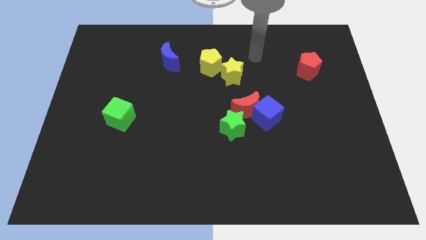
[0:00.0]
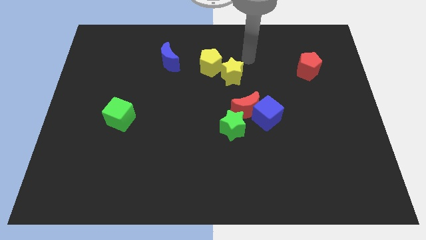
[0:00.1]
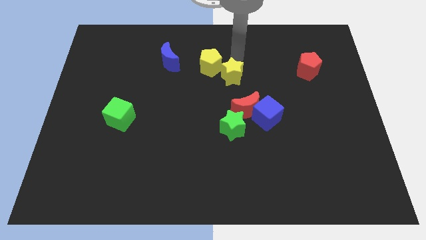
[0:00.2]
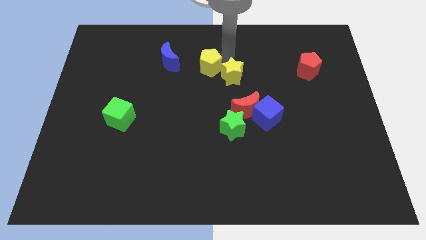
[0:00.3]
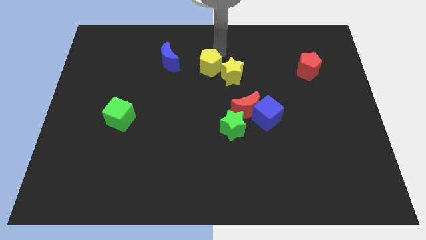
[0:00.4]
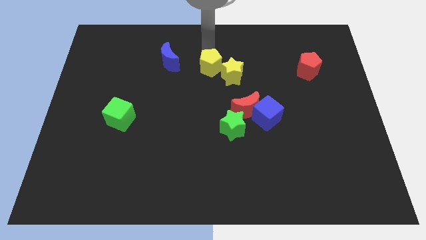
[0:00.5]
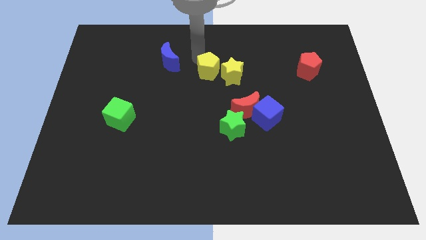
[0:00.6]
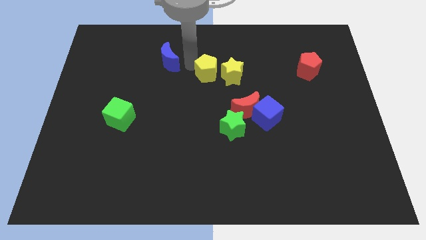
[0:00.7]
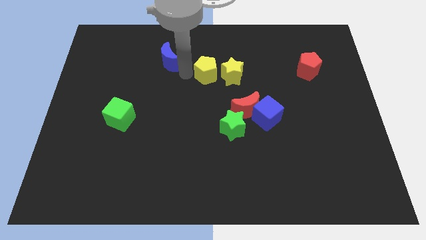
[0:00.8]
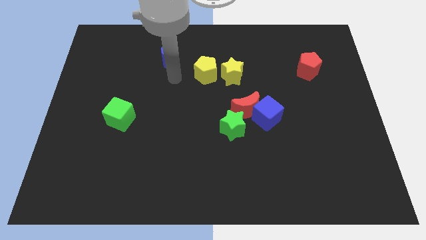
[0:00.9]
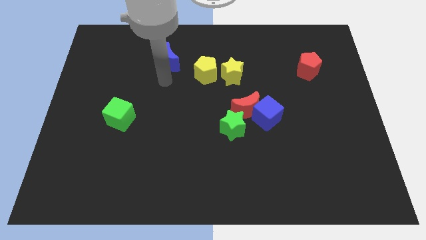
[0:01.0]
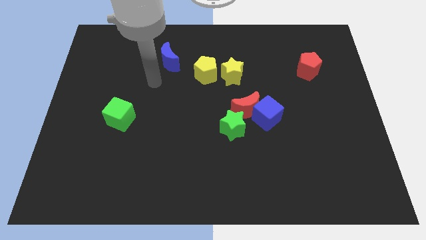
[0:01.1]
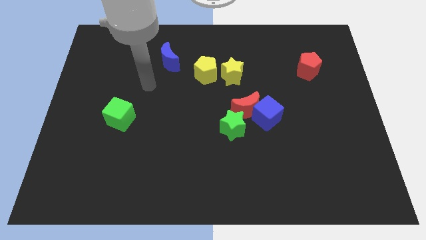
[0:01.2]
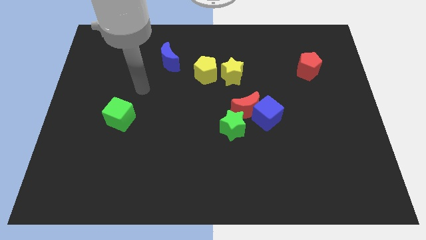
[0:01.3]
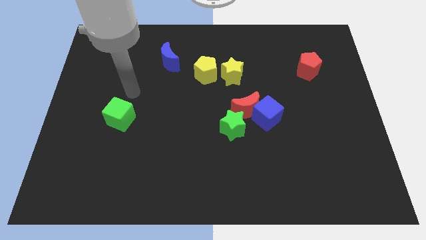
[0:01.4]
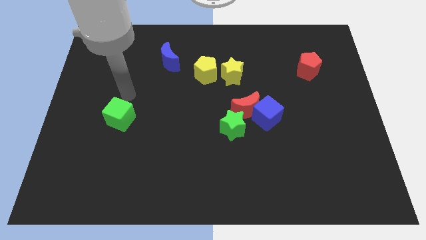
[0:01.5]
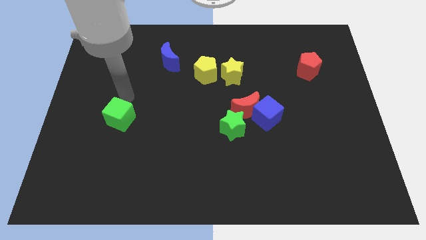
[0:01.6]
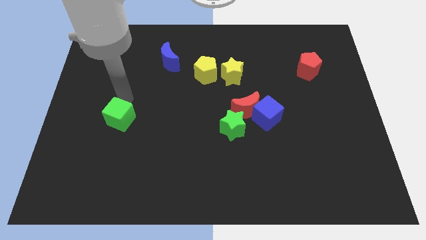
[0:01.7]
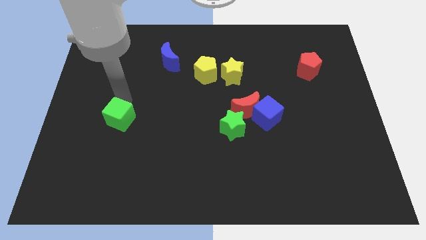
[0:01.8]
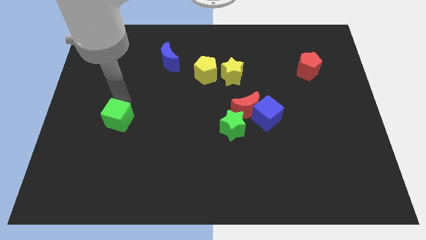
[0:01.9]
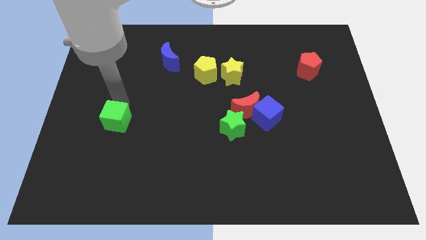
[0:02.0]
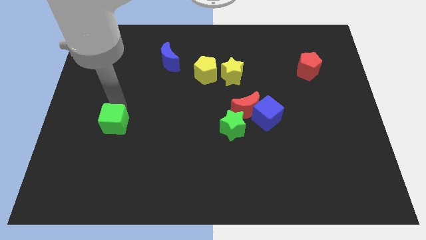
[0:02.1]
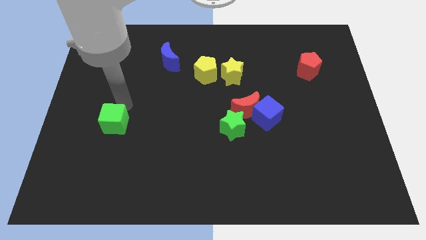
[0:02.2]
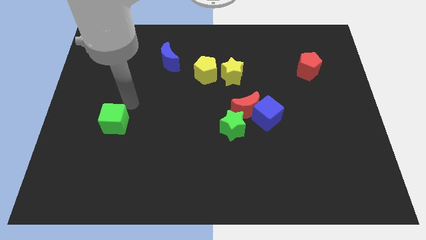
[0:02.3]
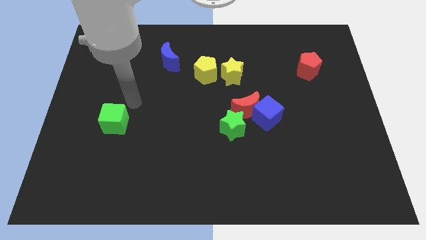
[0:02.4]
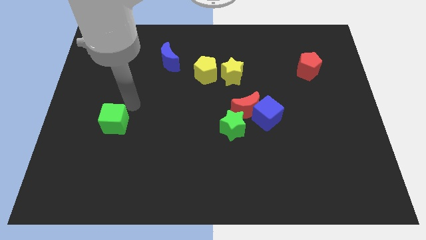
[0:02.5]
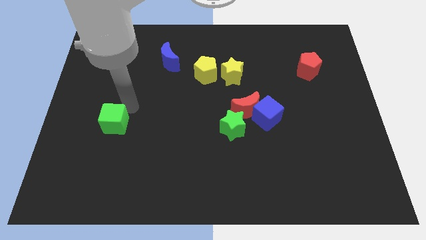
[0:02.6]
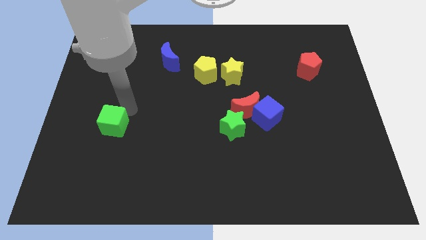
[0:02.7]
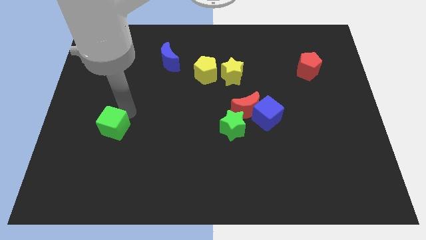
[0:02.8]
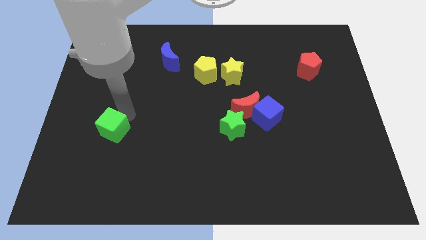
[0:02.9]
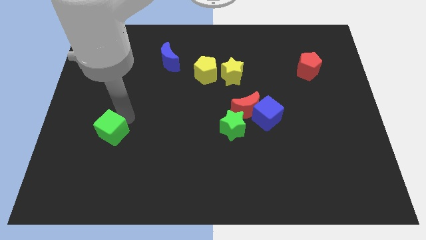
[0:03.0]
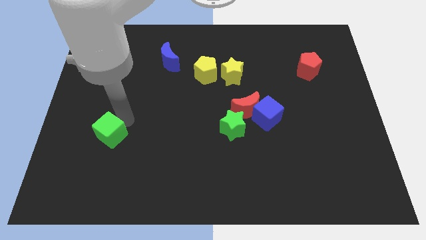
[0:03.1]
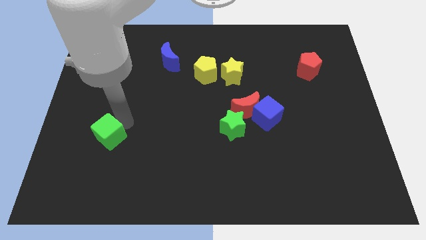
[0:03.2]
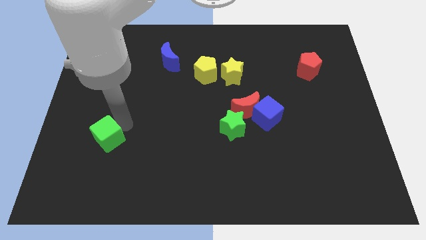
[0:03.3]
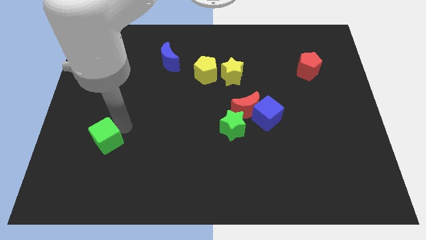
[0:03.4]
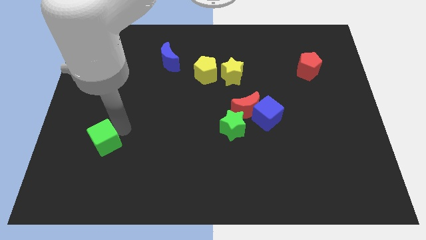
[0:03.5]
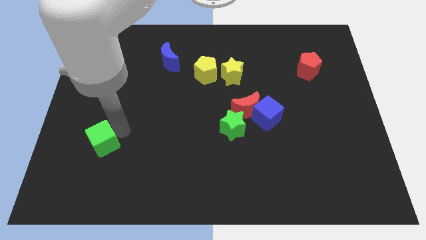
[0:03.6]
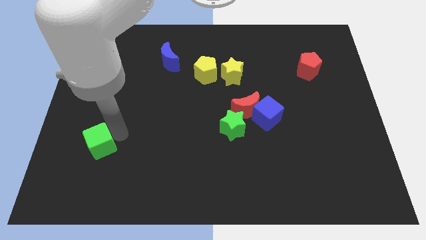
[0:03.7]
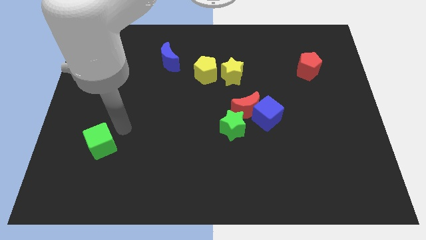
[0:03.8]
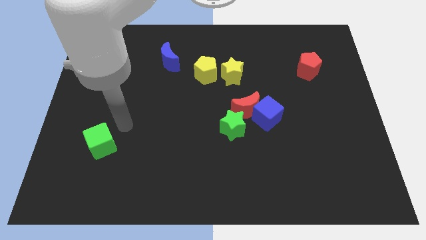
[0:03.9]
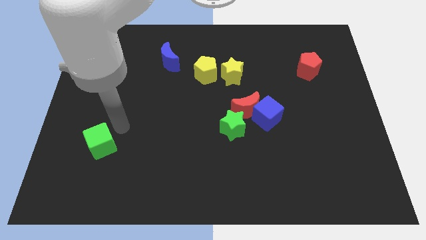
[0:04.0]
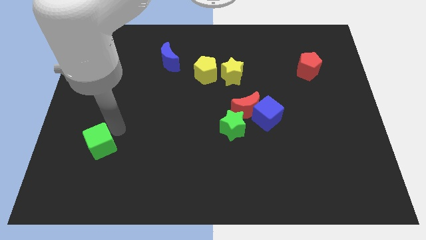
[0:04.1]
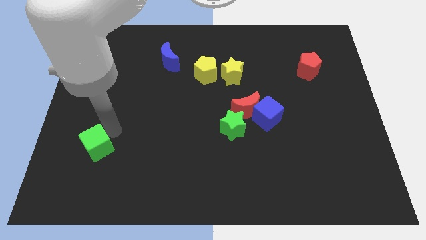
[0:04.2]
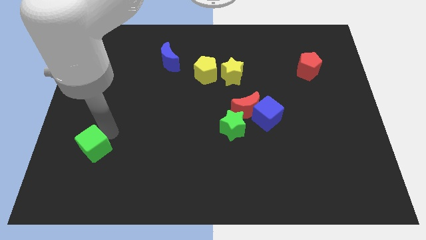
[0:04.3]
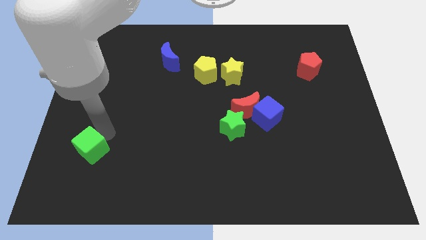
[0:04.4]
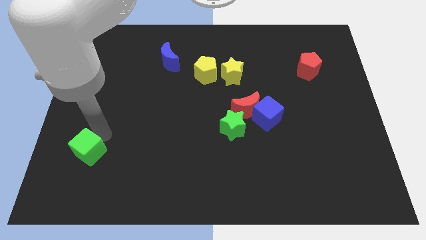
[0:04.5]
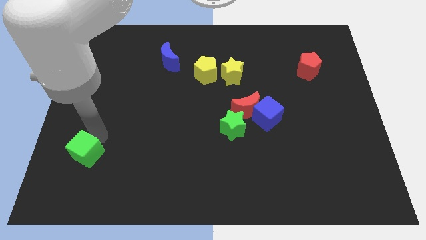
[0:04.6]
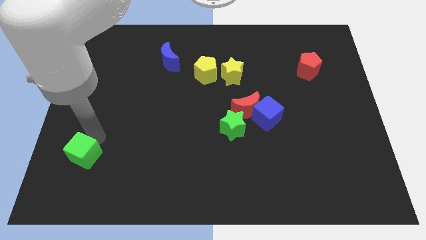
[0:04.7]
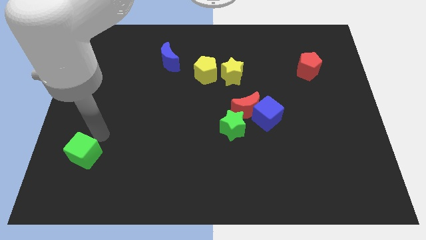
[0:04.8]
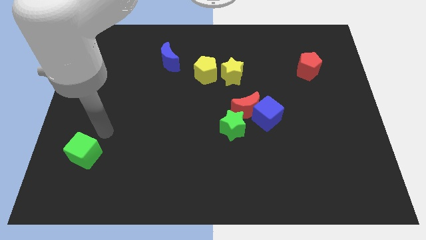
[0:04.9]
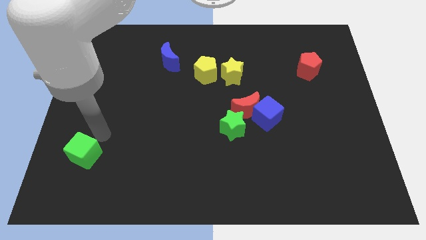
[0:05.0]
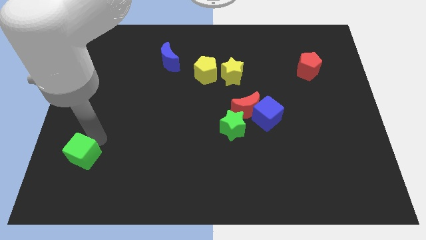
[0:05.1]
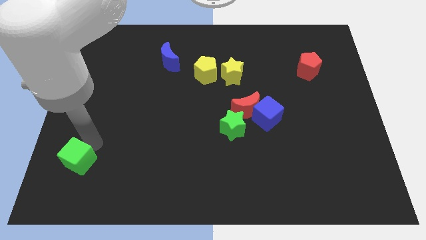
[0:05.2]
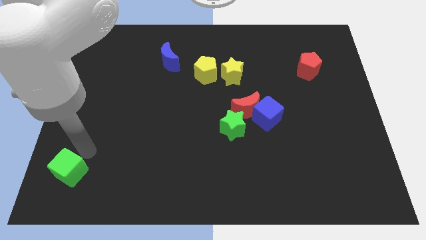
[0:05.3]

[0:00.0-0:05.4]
put the green cube to the bottom left of the board

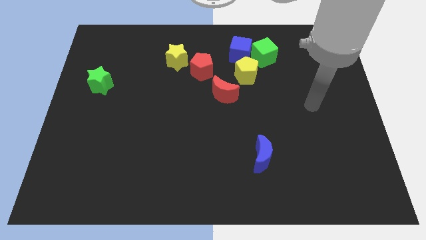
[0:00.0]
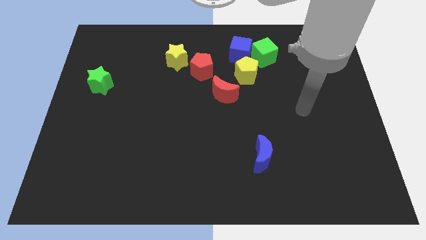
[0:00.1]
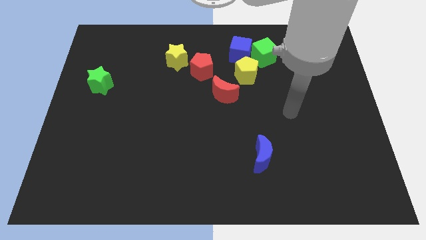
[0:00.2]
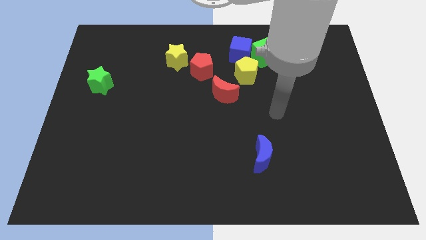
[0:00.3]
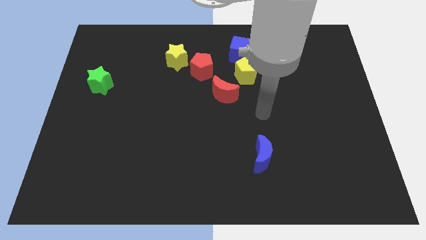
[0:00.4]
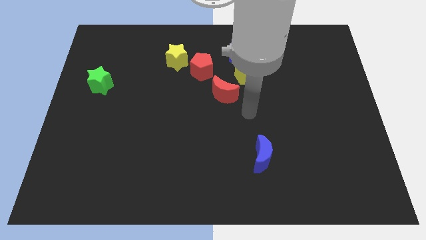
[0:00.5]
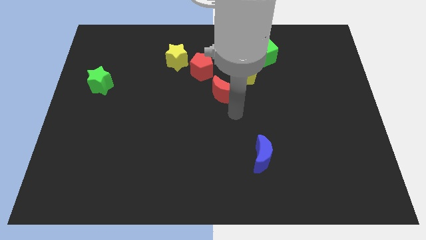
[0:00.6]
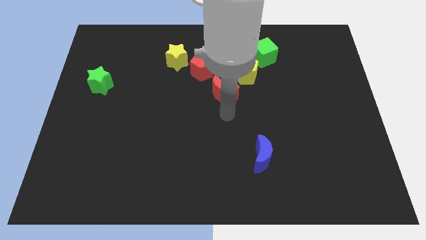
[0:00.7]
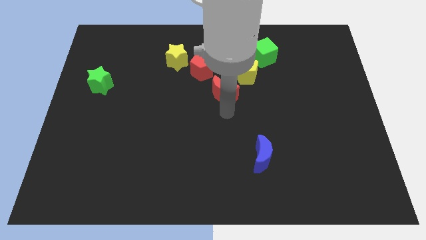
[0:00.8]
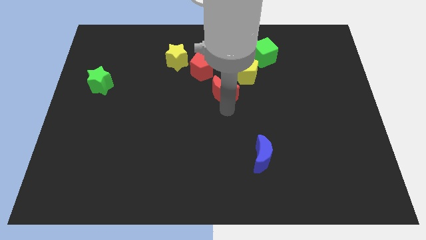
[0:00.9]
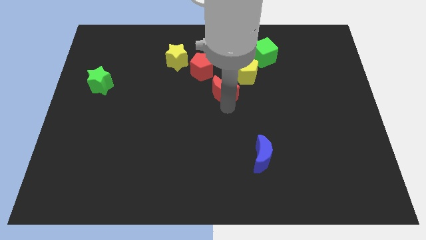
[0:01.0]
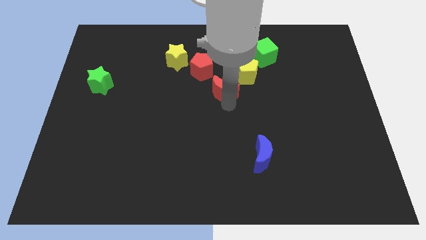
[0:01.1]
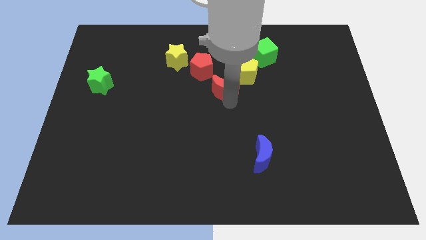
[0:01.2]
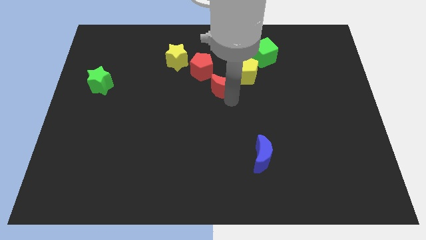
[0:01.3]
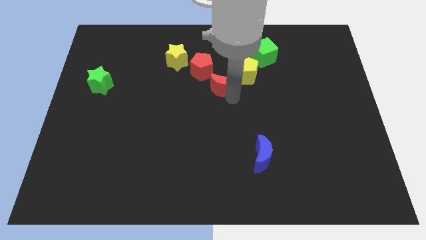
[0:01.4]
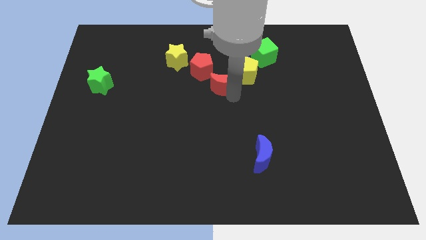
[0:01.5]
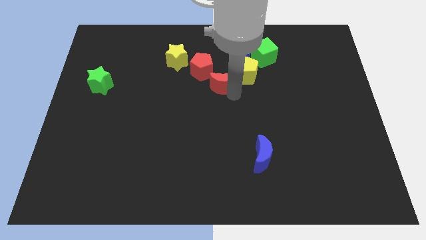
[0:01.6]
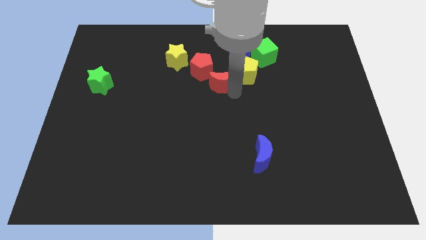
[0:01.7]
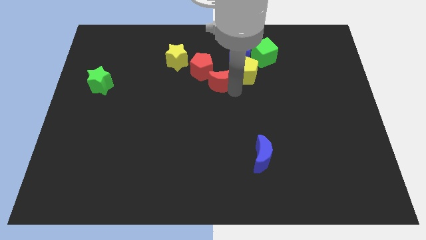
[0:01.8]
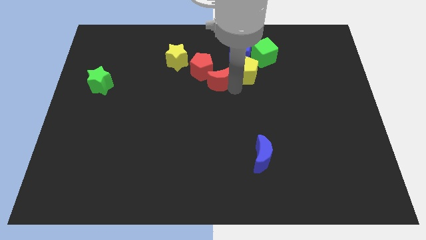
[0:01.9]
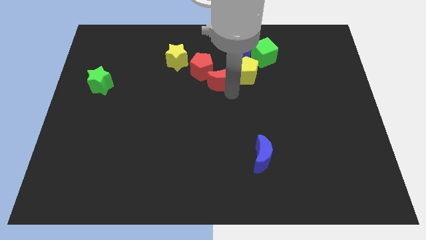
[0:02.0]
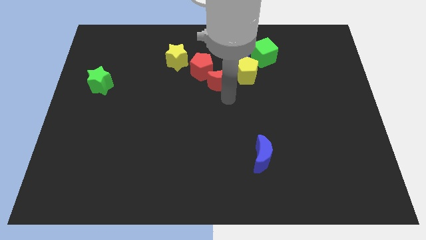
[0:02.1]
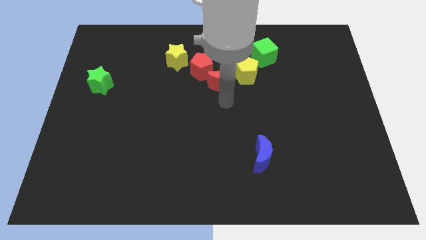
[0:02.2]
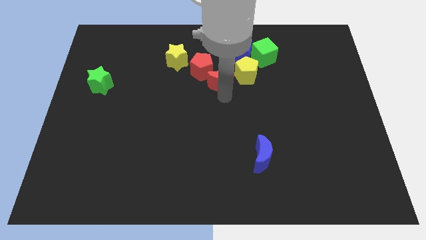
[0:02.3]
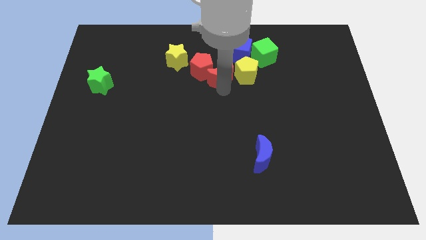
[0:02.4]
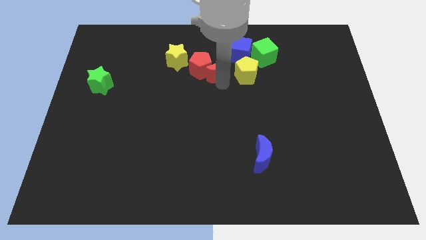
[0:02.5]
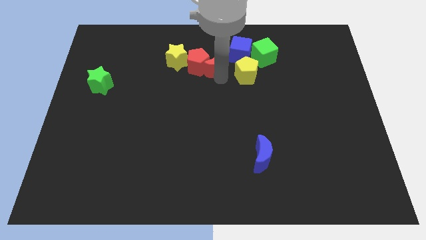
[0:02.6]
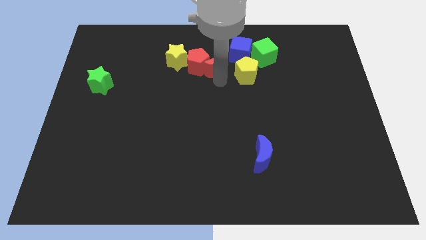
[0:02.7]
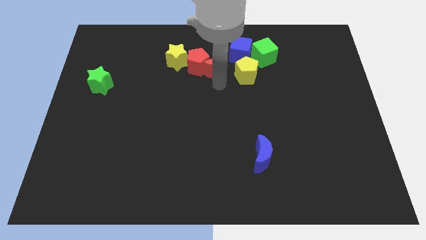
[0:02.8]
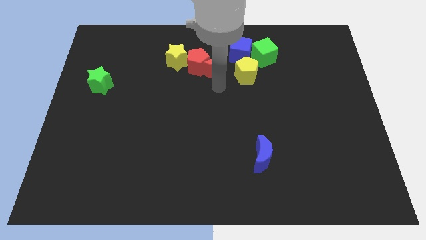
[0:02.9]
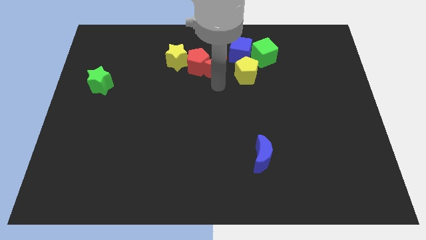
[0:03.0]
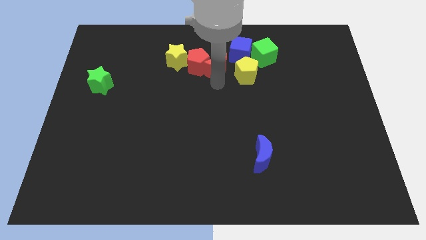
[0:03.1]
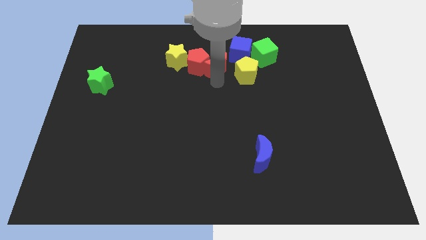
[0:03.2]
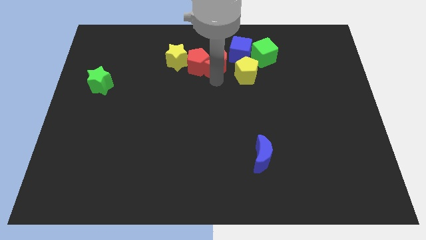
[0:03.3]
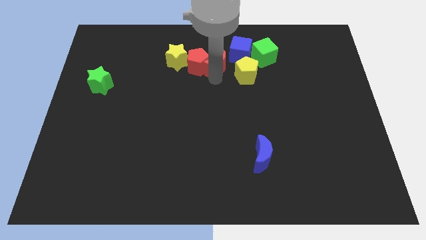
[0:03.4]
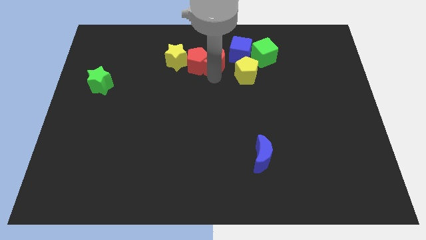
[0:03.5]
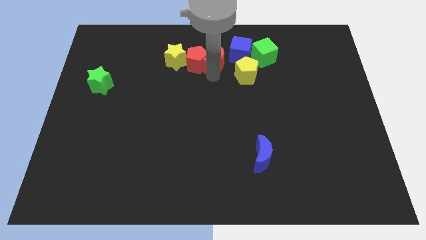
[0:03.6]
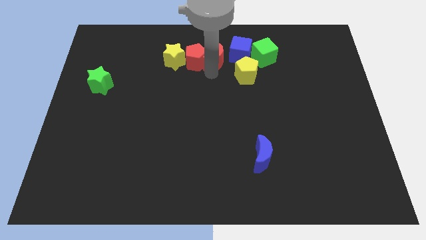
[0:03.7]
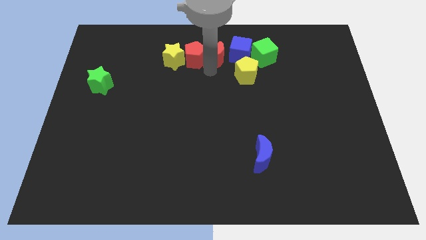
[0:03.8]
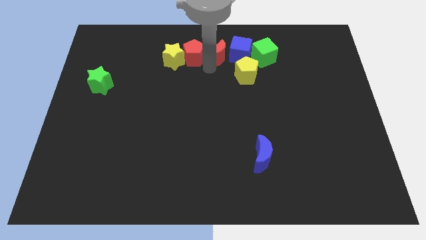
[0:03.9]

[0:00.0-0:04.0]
push the red moon to the top side
